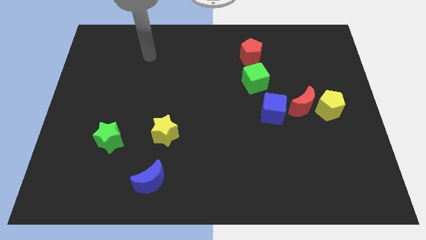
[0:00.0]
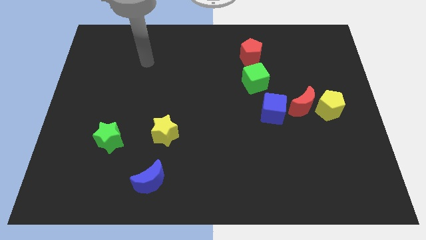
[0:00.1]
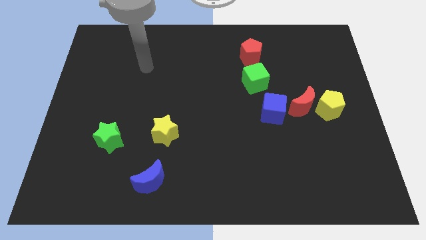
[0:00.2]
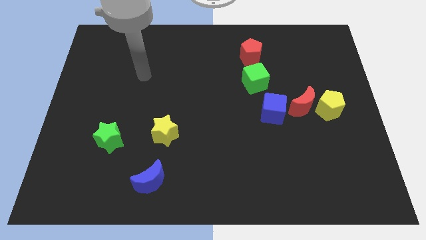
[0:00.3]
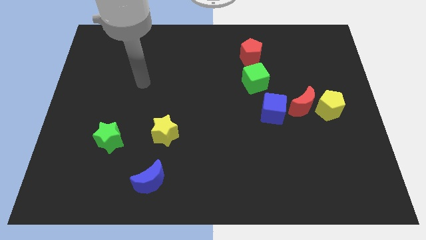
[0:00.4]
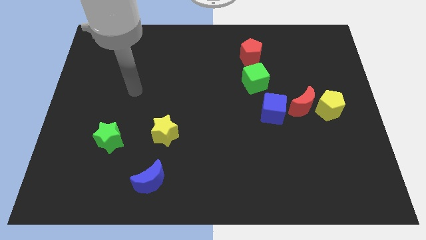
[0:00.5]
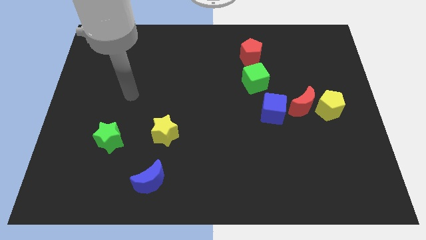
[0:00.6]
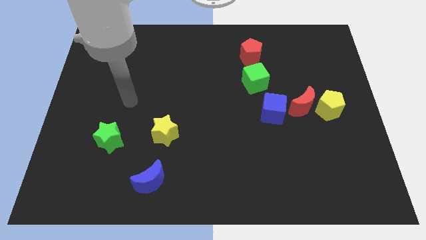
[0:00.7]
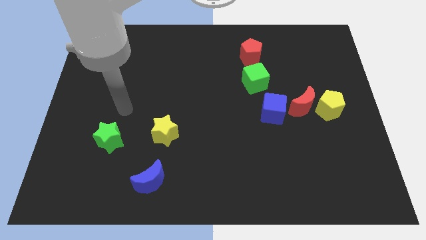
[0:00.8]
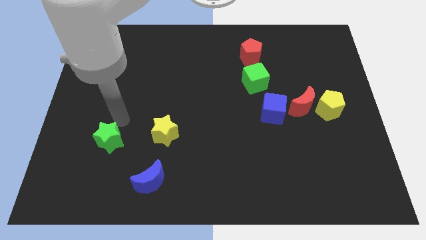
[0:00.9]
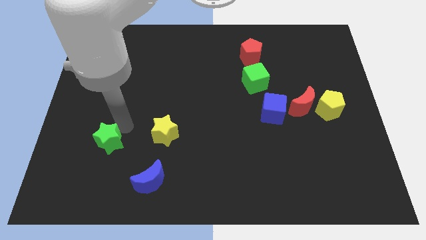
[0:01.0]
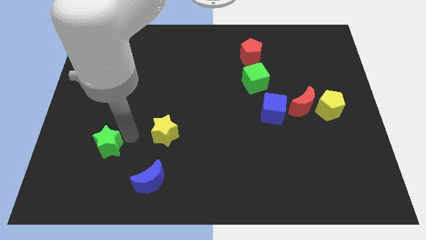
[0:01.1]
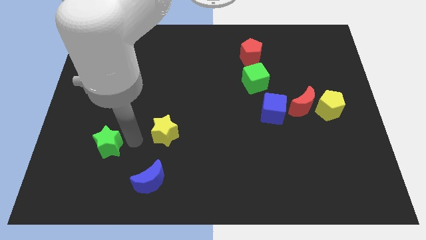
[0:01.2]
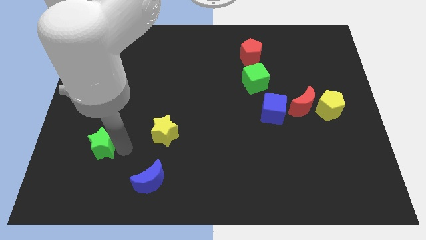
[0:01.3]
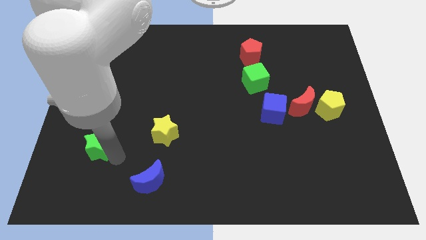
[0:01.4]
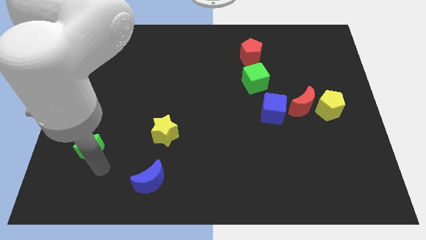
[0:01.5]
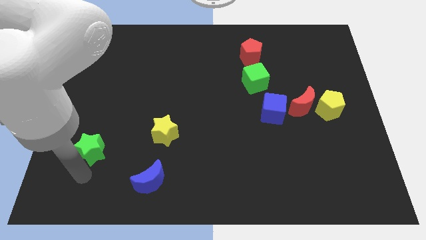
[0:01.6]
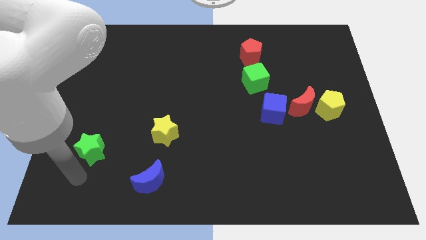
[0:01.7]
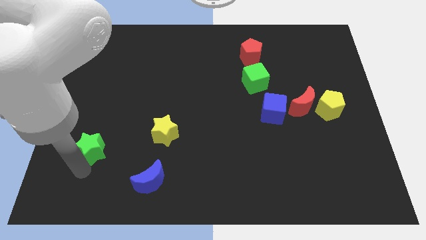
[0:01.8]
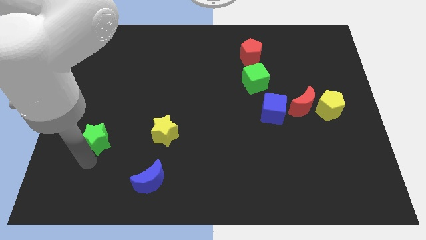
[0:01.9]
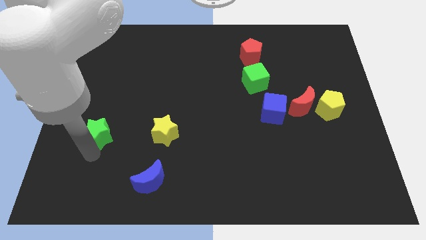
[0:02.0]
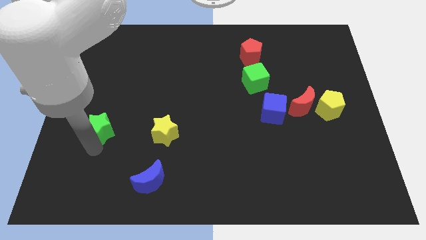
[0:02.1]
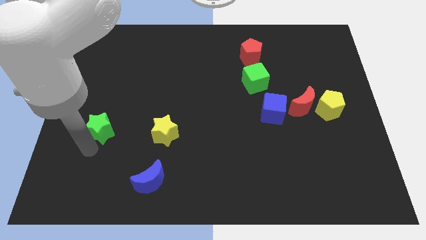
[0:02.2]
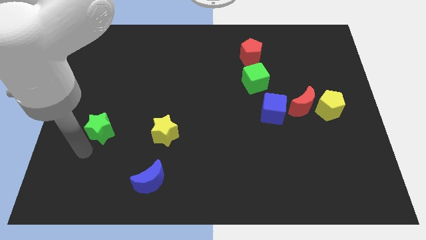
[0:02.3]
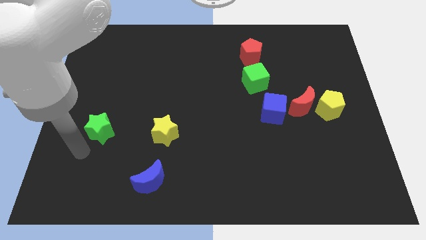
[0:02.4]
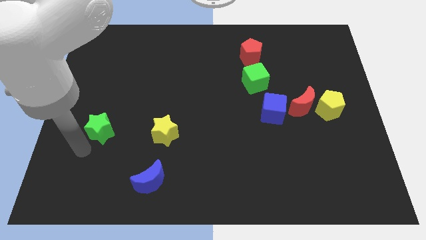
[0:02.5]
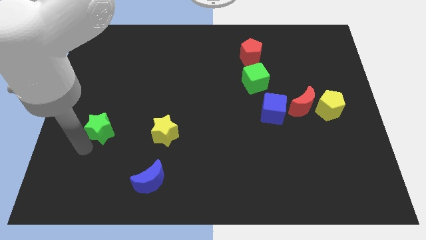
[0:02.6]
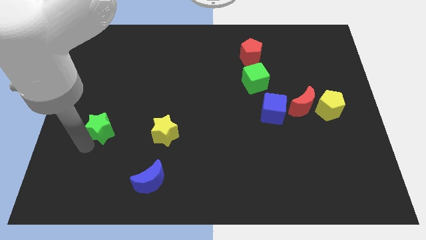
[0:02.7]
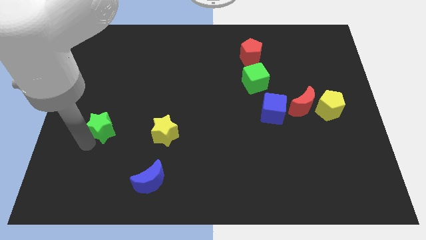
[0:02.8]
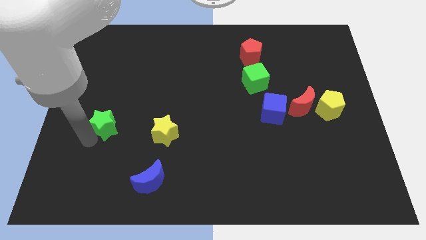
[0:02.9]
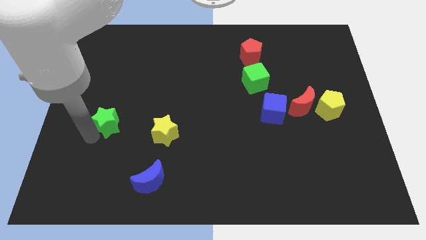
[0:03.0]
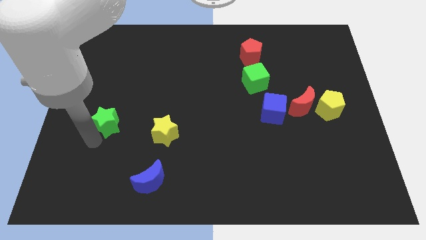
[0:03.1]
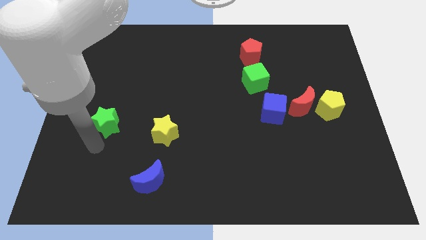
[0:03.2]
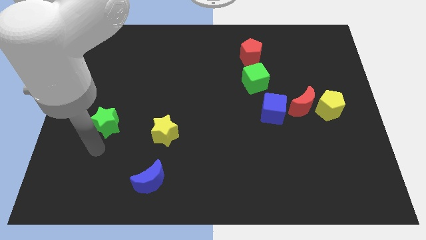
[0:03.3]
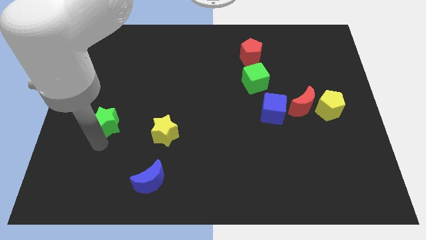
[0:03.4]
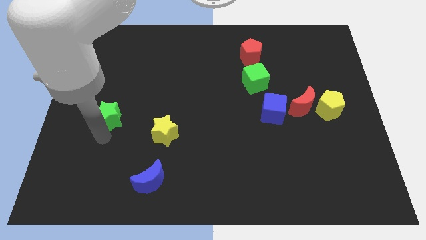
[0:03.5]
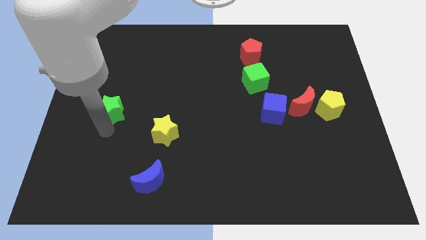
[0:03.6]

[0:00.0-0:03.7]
move the green star somewhat up

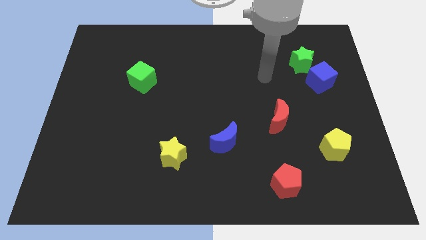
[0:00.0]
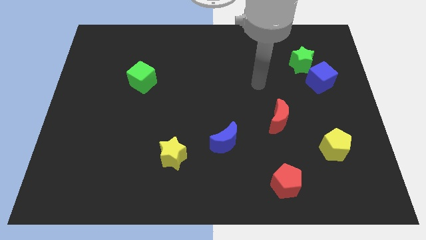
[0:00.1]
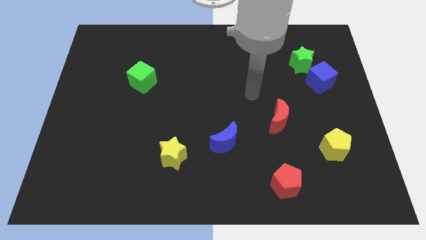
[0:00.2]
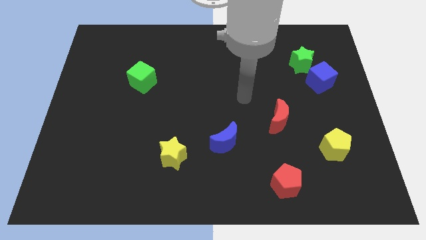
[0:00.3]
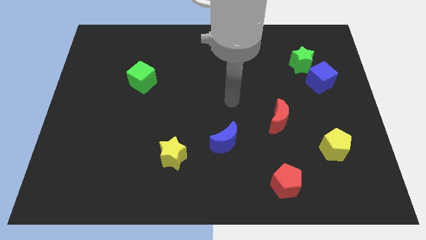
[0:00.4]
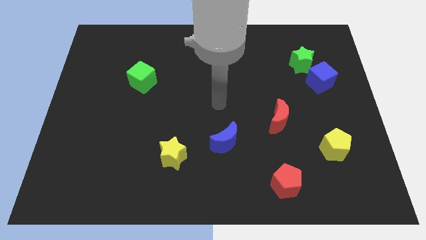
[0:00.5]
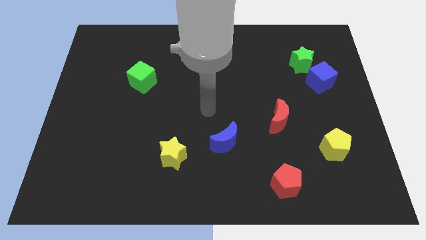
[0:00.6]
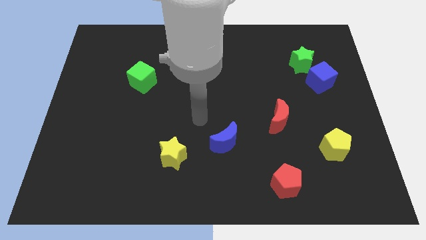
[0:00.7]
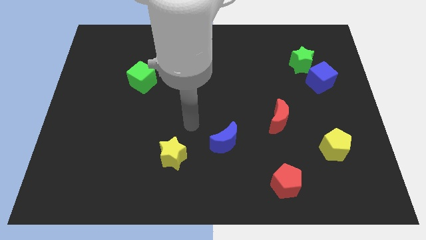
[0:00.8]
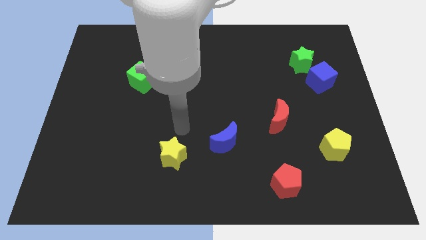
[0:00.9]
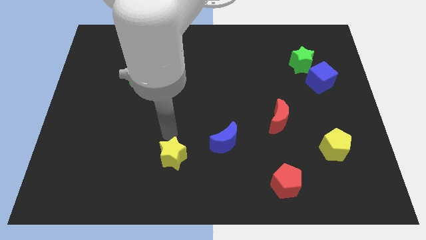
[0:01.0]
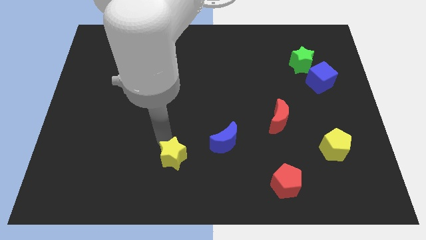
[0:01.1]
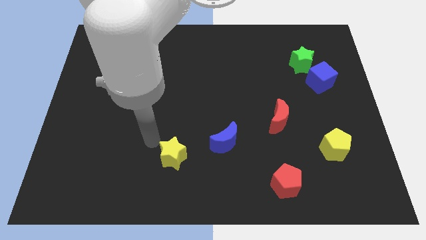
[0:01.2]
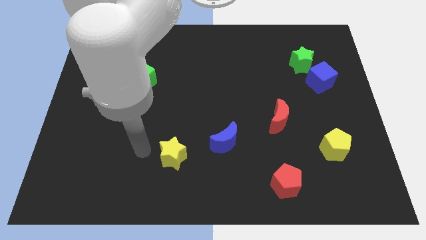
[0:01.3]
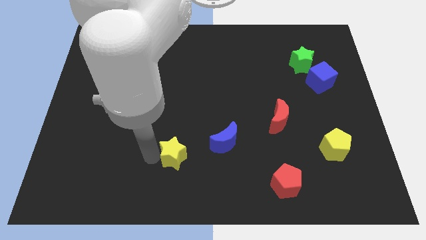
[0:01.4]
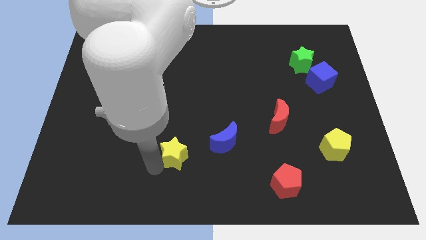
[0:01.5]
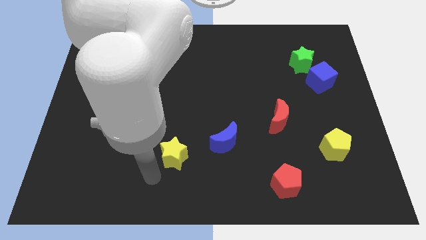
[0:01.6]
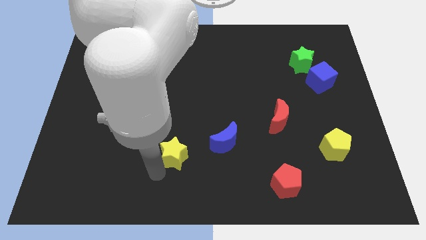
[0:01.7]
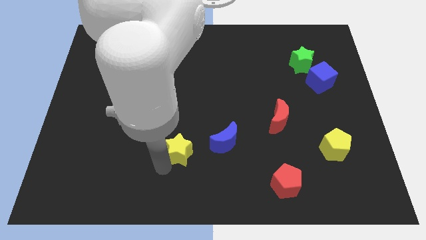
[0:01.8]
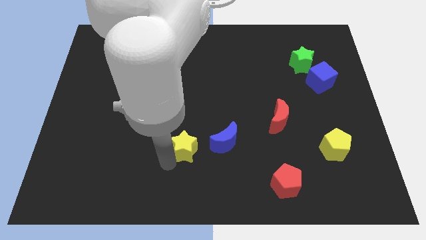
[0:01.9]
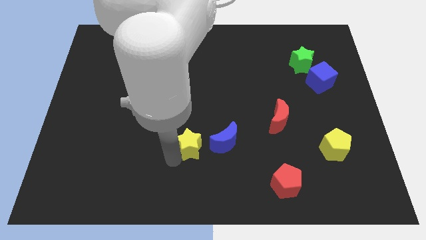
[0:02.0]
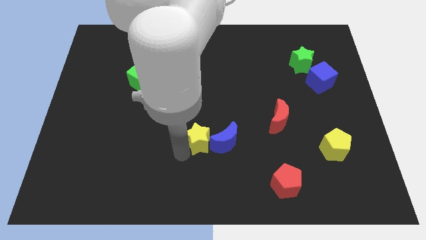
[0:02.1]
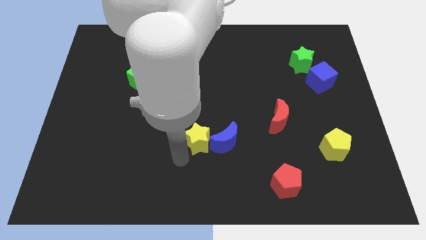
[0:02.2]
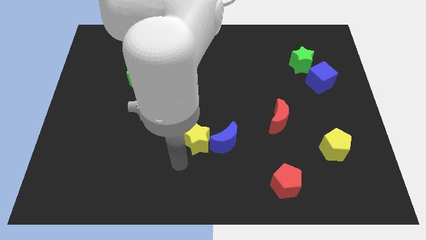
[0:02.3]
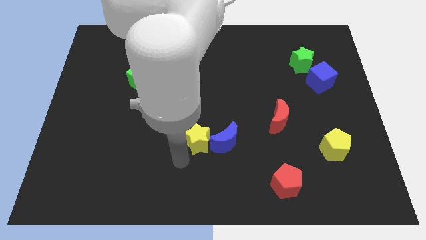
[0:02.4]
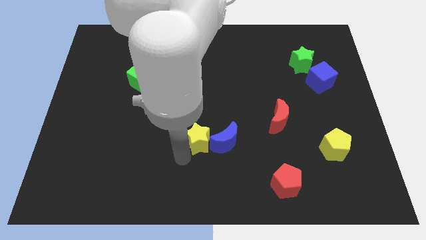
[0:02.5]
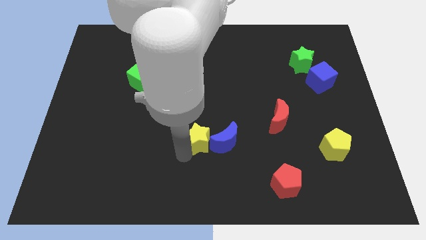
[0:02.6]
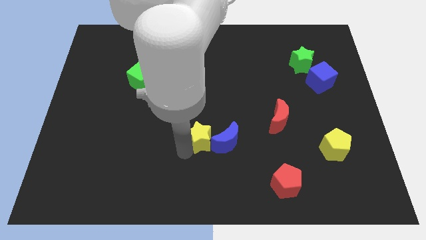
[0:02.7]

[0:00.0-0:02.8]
move the yellow star up and to the right diagonally a bit

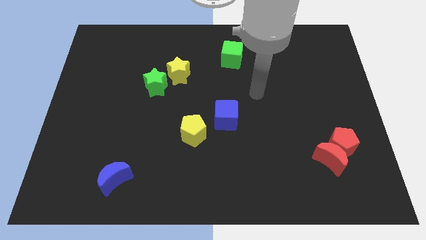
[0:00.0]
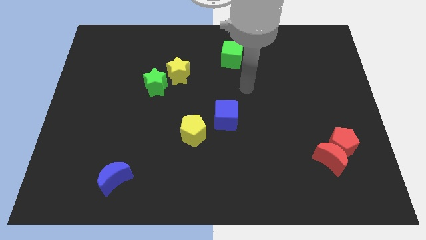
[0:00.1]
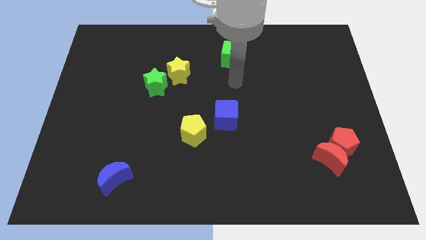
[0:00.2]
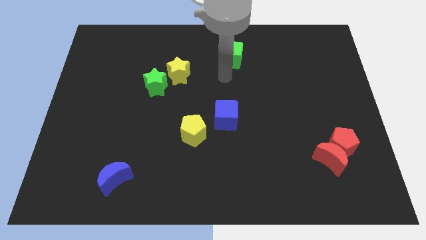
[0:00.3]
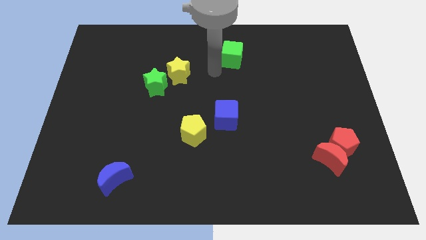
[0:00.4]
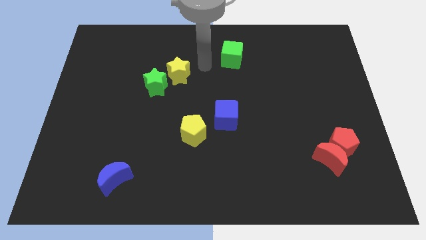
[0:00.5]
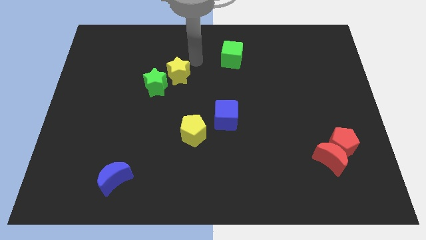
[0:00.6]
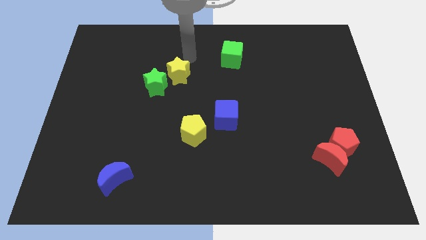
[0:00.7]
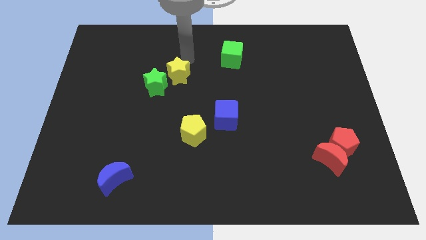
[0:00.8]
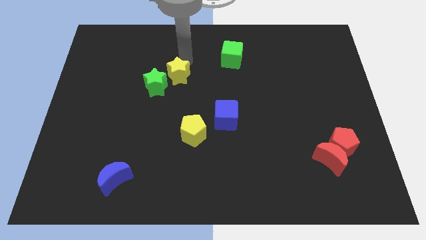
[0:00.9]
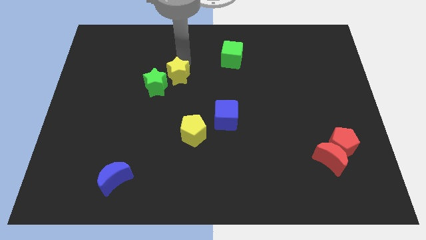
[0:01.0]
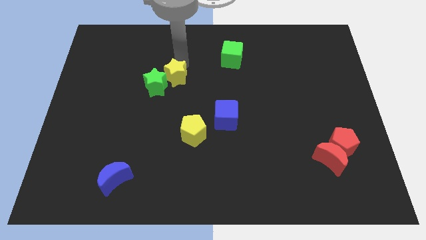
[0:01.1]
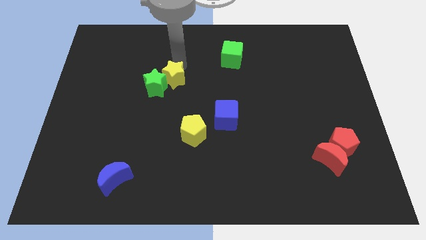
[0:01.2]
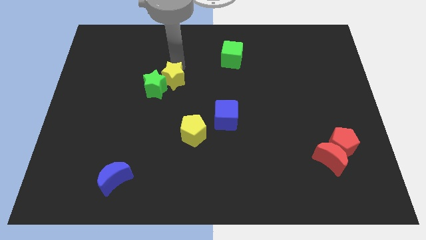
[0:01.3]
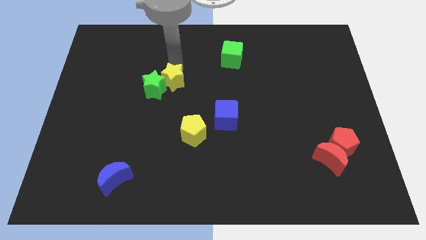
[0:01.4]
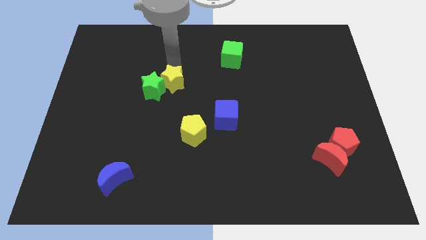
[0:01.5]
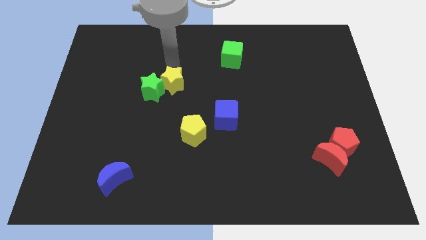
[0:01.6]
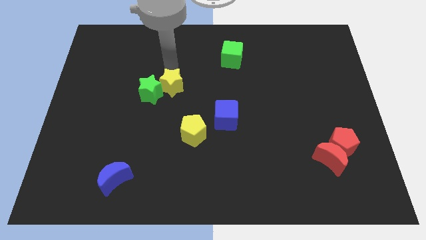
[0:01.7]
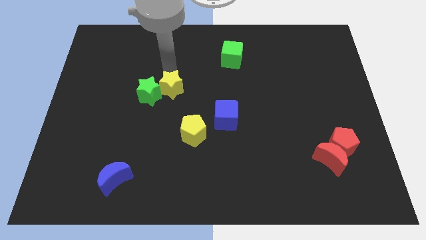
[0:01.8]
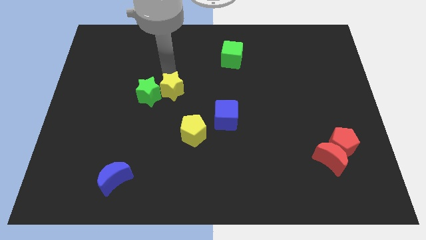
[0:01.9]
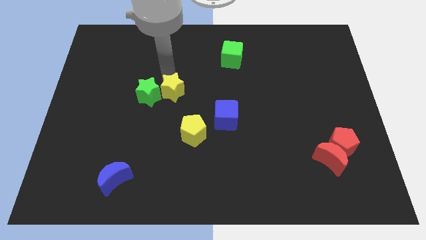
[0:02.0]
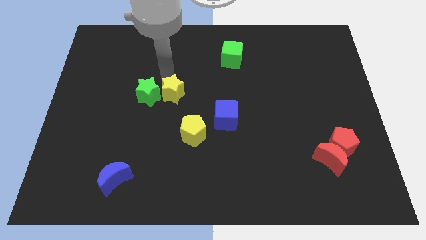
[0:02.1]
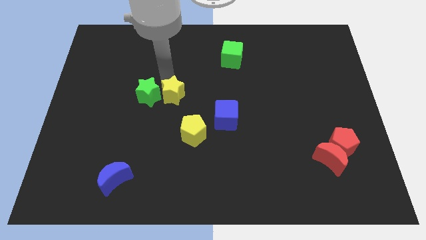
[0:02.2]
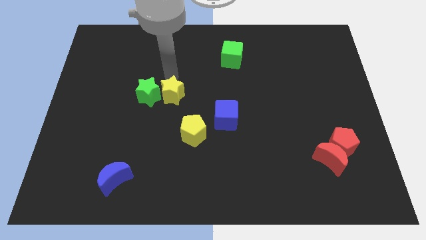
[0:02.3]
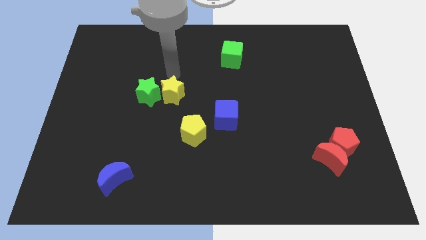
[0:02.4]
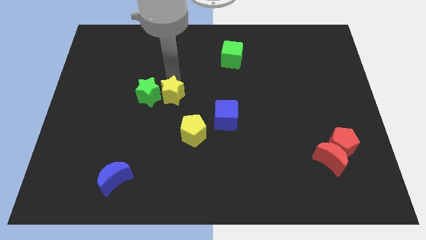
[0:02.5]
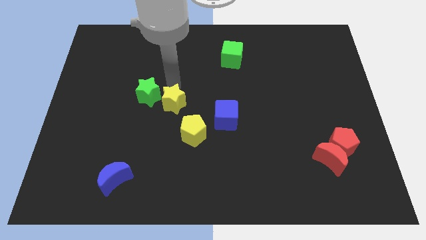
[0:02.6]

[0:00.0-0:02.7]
move the yellow star down slightly
